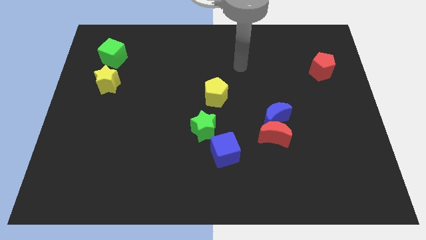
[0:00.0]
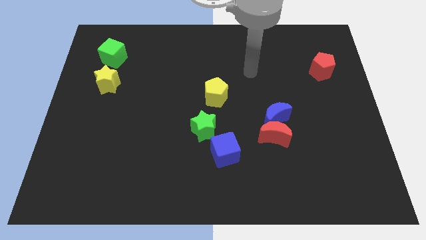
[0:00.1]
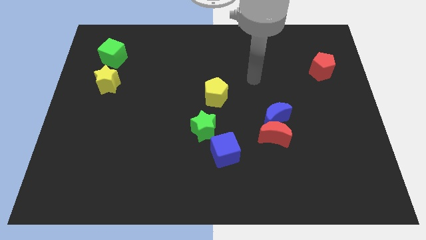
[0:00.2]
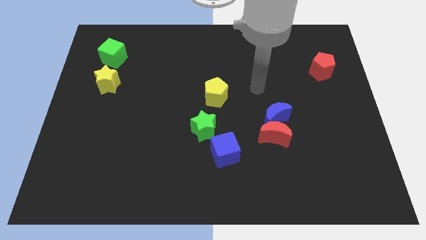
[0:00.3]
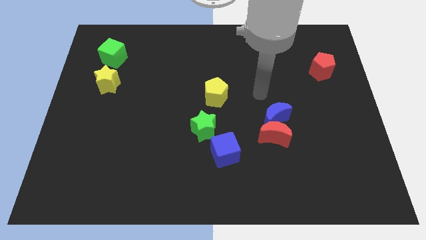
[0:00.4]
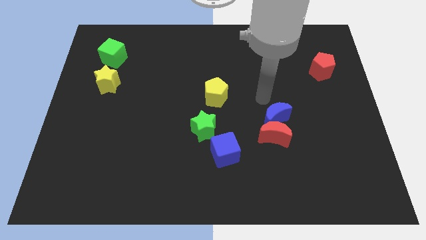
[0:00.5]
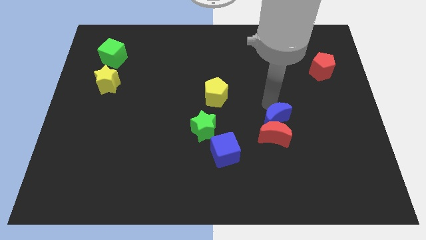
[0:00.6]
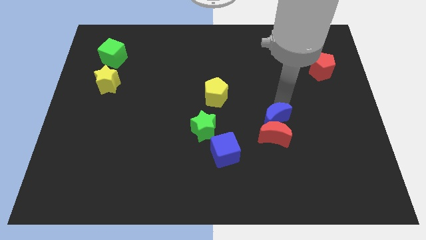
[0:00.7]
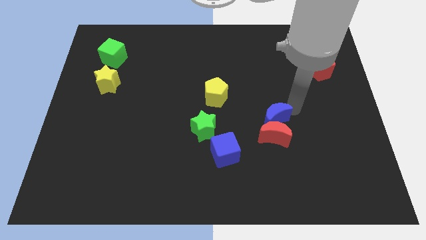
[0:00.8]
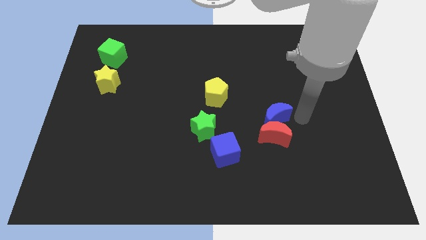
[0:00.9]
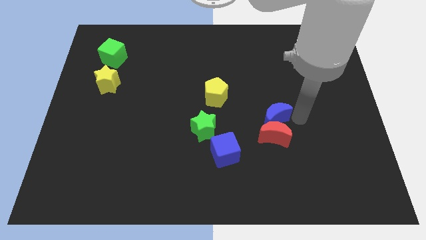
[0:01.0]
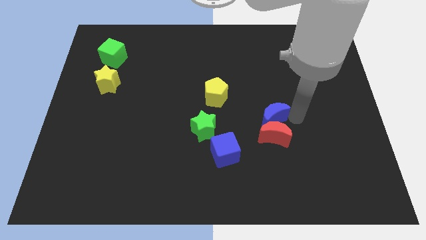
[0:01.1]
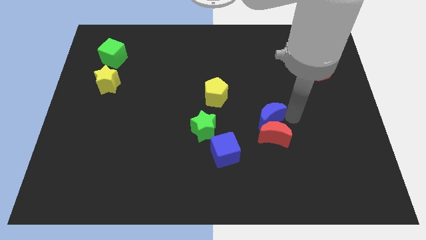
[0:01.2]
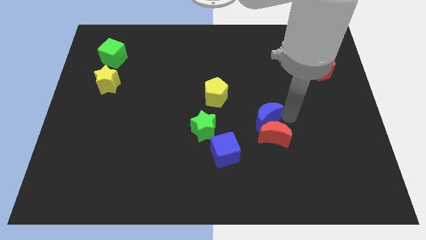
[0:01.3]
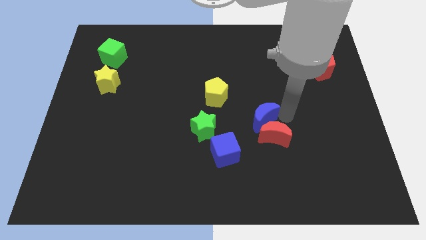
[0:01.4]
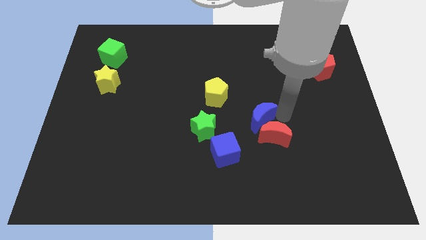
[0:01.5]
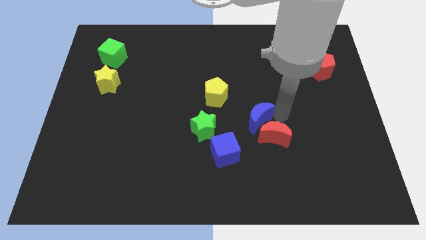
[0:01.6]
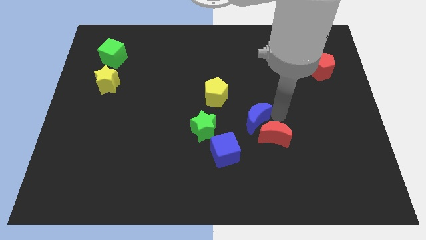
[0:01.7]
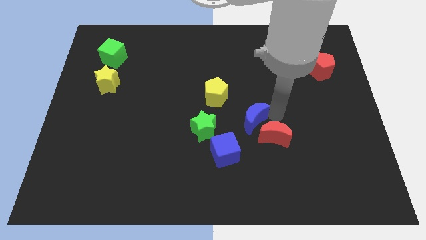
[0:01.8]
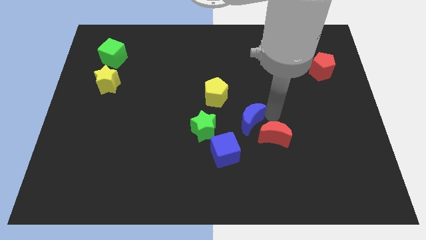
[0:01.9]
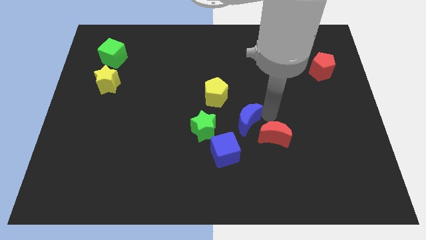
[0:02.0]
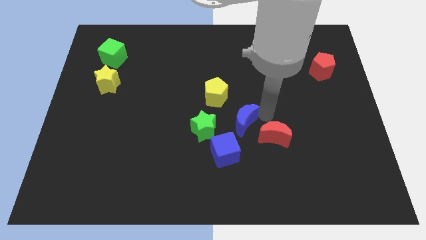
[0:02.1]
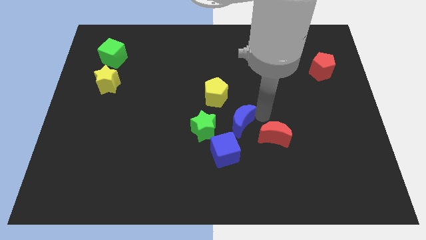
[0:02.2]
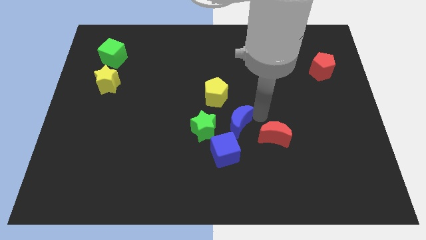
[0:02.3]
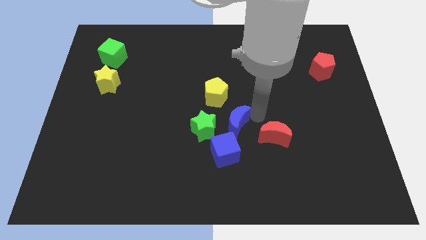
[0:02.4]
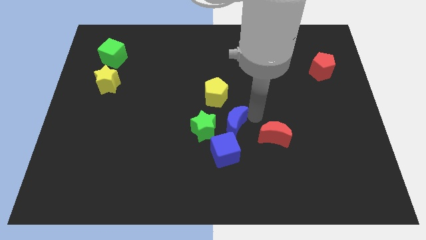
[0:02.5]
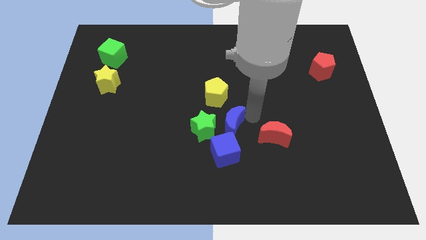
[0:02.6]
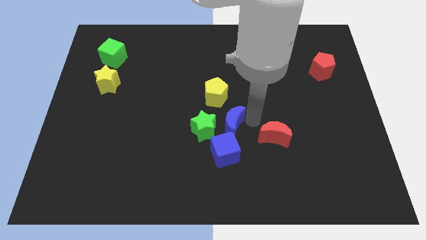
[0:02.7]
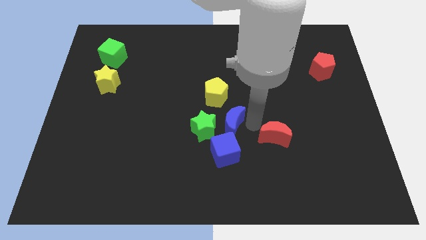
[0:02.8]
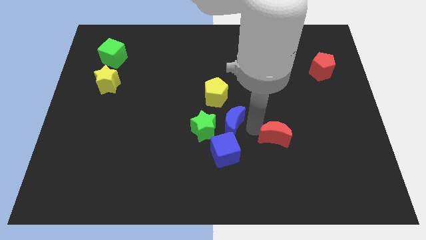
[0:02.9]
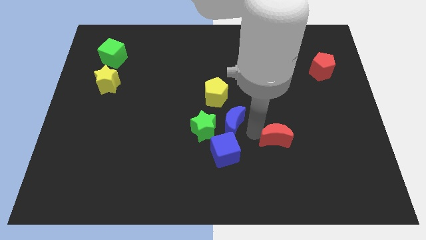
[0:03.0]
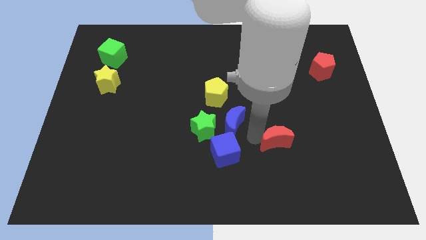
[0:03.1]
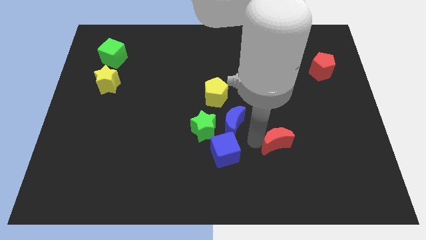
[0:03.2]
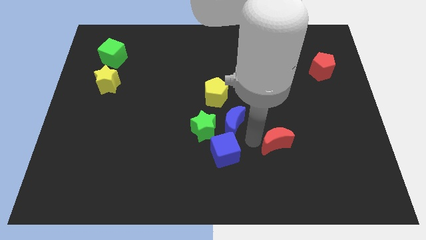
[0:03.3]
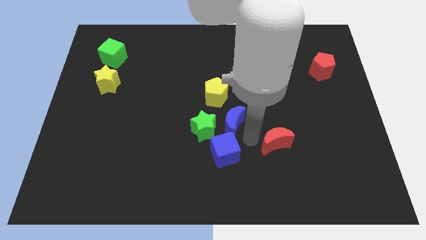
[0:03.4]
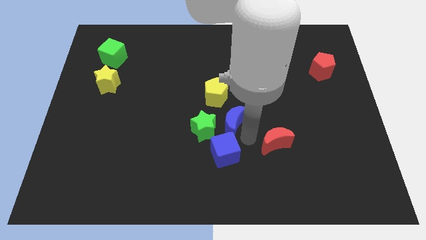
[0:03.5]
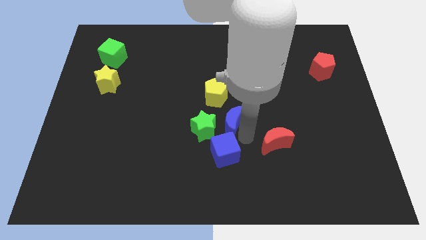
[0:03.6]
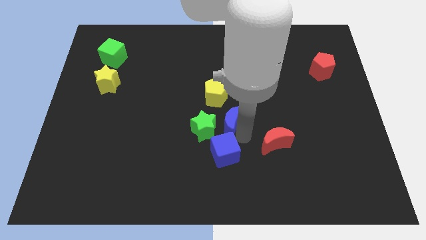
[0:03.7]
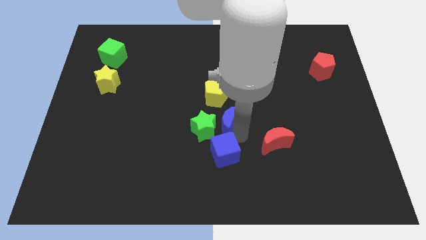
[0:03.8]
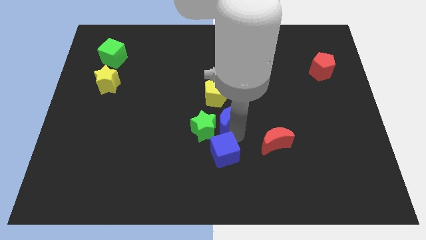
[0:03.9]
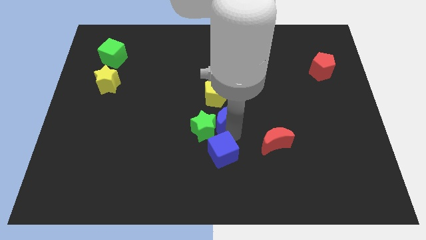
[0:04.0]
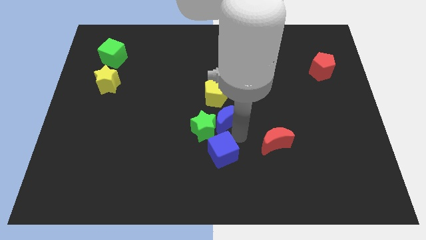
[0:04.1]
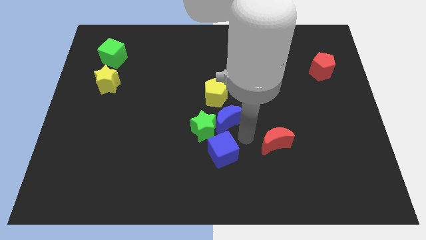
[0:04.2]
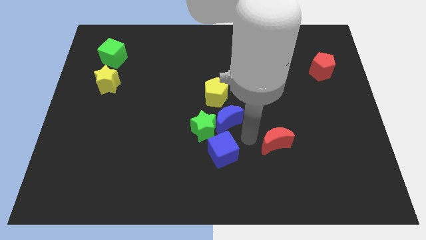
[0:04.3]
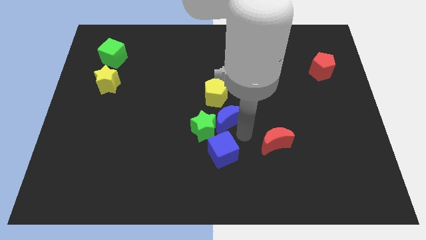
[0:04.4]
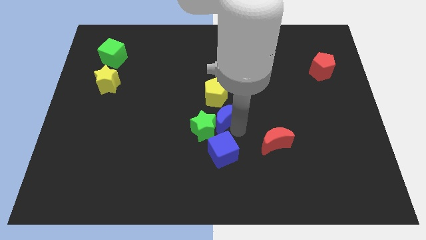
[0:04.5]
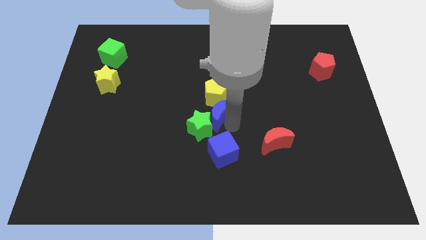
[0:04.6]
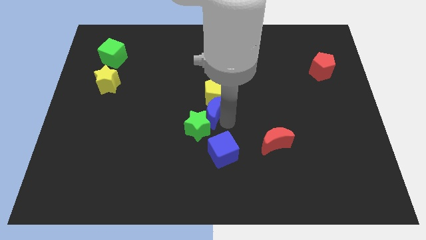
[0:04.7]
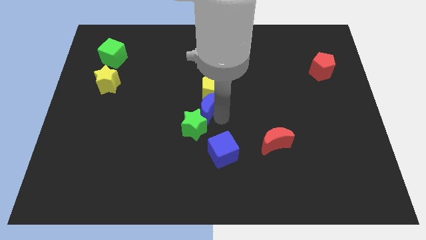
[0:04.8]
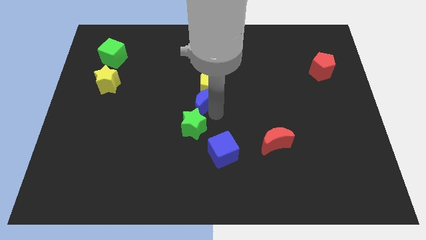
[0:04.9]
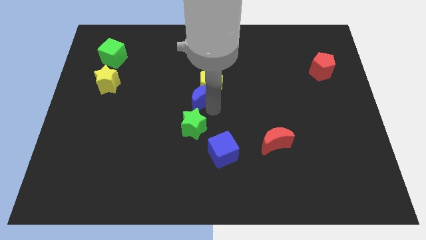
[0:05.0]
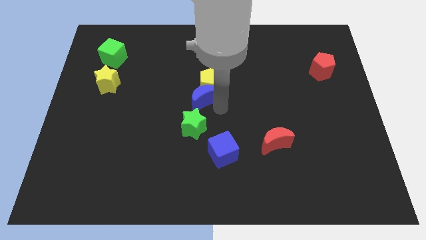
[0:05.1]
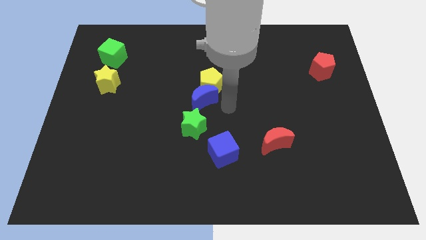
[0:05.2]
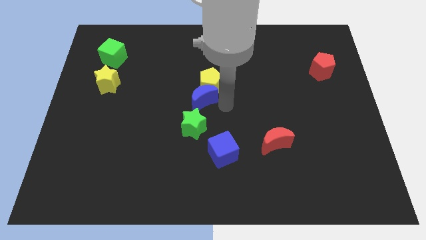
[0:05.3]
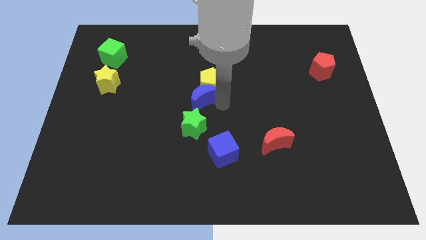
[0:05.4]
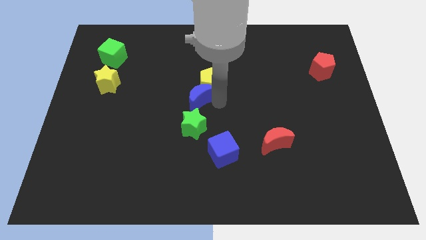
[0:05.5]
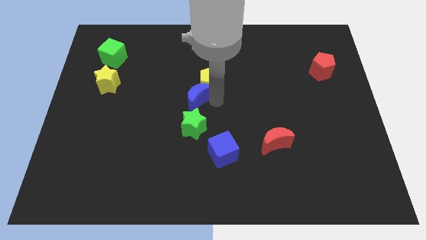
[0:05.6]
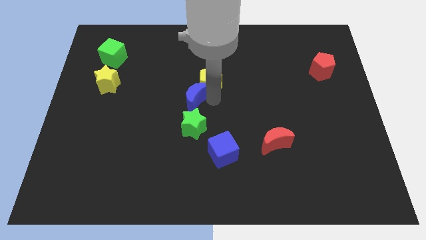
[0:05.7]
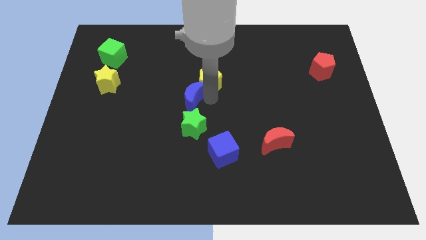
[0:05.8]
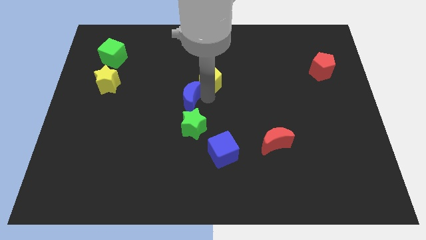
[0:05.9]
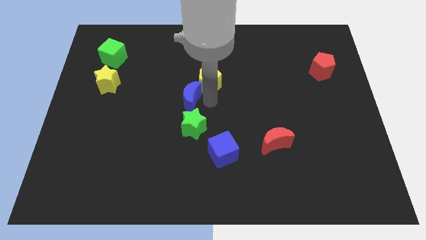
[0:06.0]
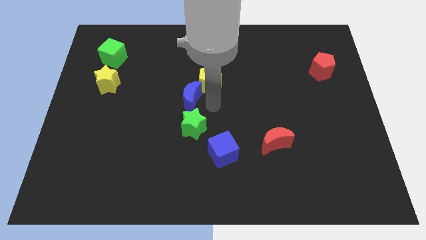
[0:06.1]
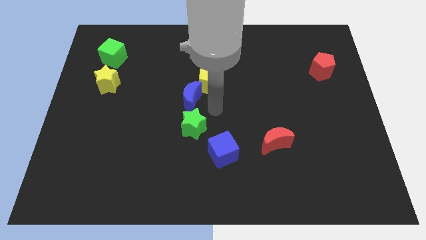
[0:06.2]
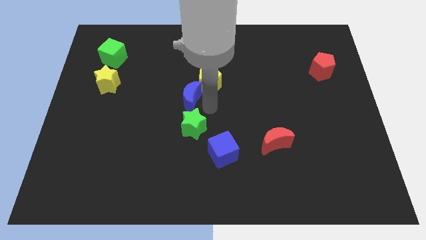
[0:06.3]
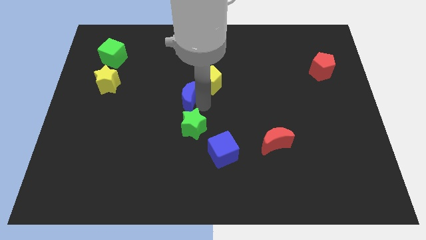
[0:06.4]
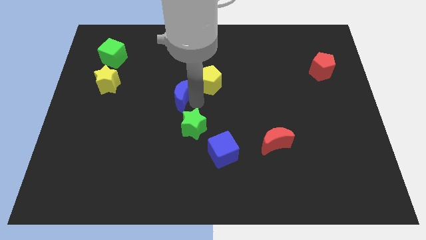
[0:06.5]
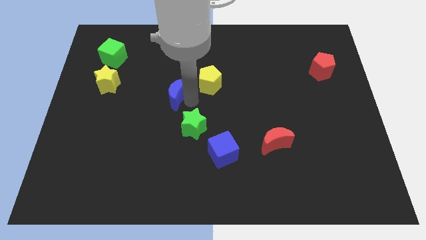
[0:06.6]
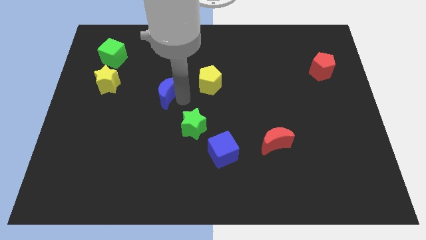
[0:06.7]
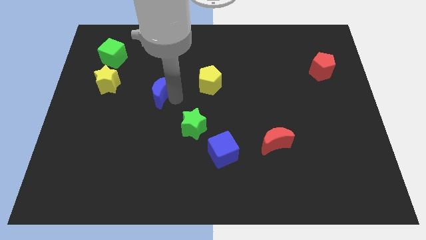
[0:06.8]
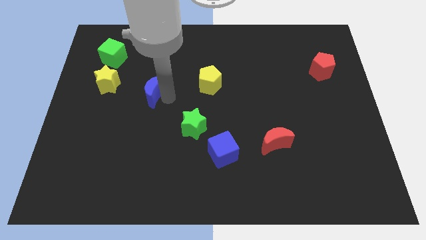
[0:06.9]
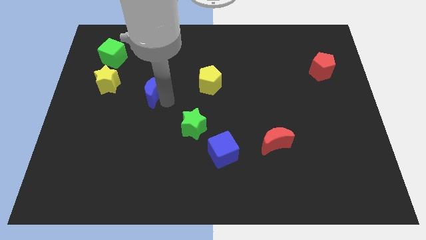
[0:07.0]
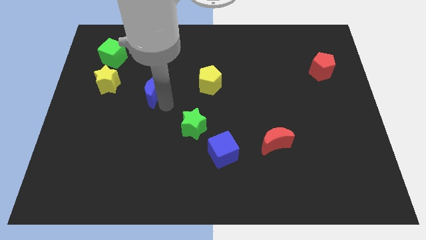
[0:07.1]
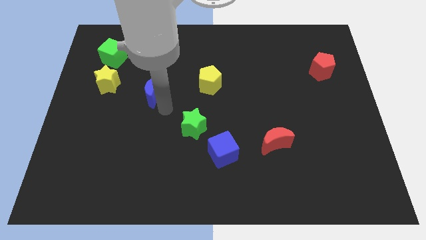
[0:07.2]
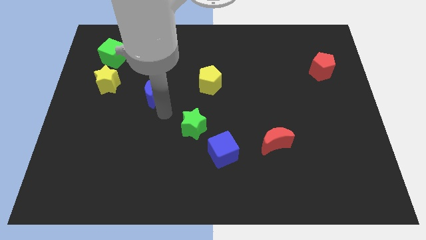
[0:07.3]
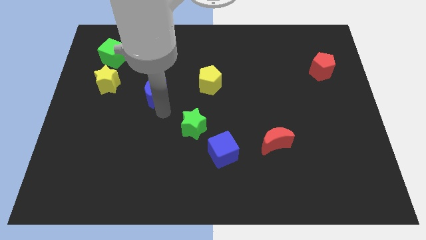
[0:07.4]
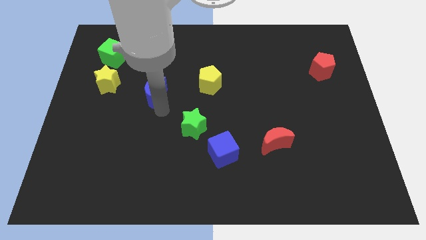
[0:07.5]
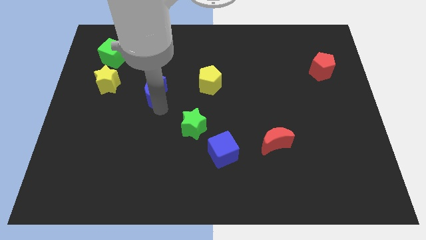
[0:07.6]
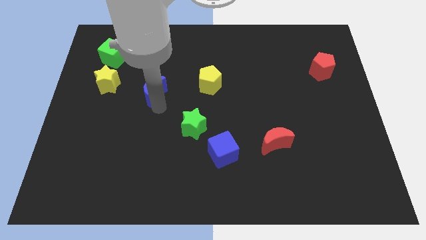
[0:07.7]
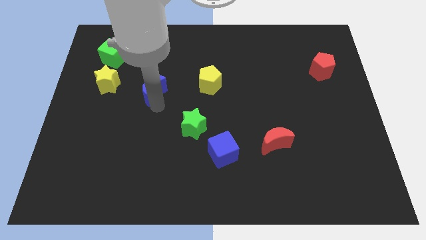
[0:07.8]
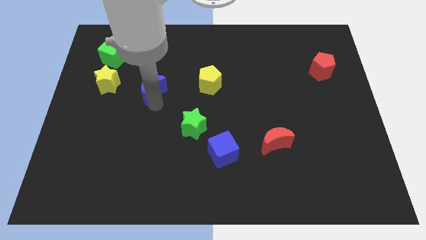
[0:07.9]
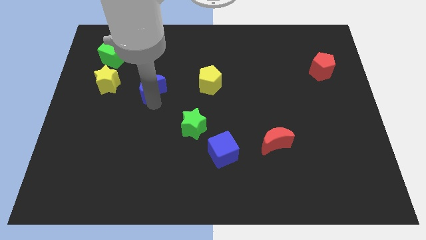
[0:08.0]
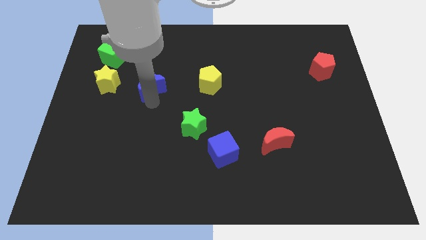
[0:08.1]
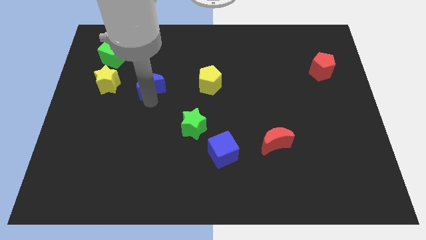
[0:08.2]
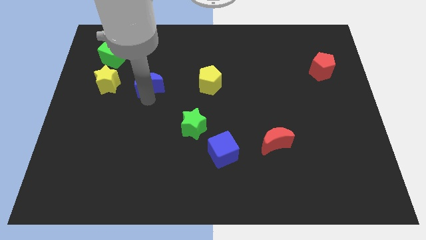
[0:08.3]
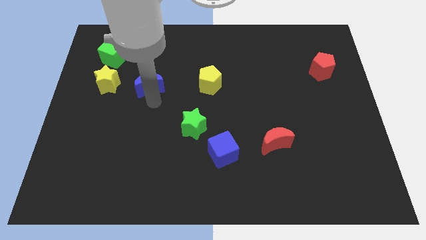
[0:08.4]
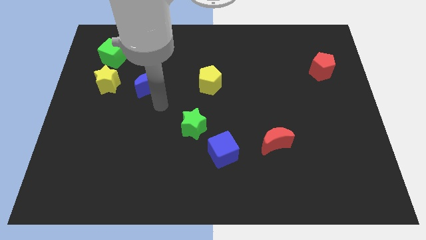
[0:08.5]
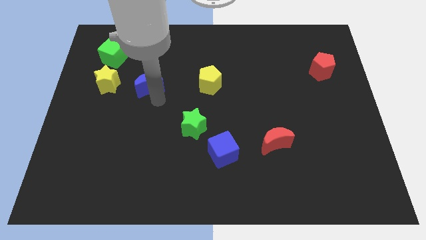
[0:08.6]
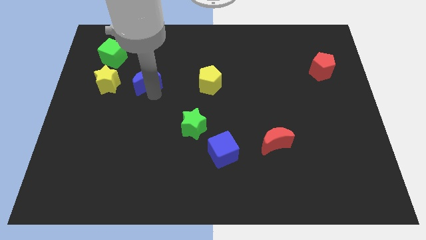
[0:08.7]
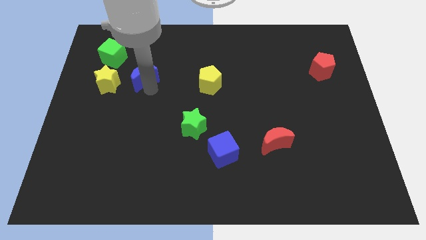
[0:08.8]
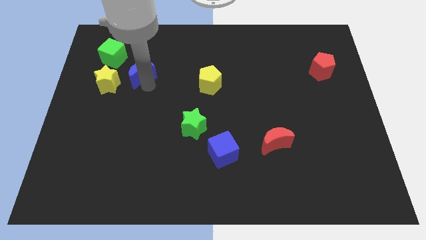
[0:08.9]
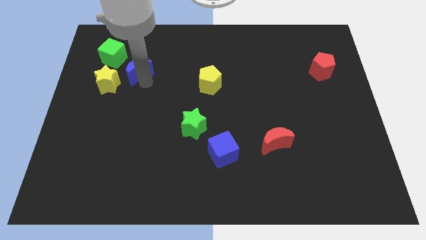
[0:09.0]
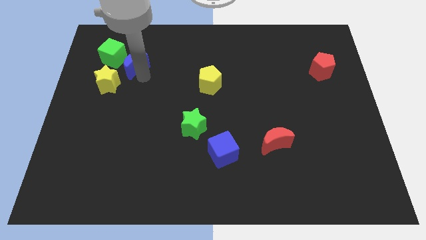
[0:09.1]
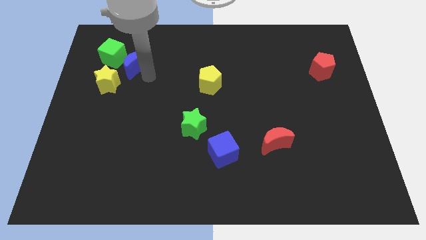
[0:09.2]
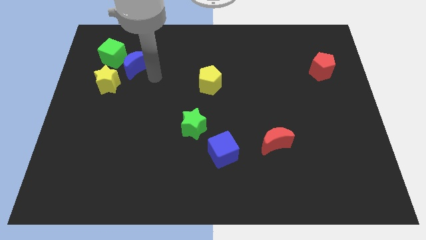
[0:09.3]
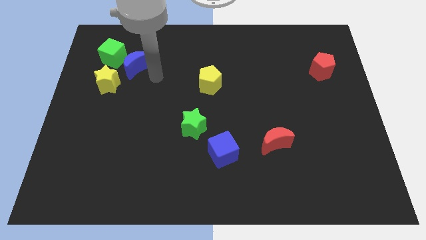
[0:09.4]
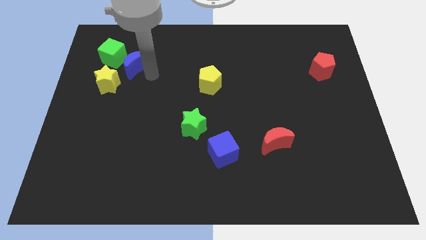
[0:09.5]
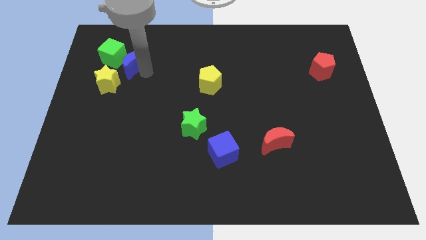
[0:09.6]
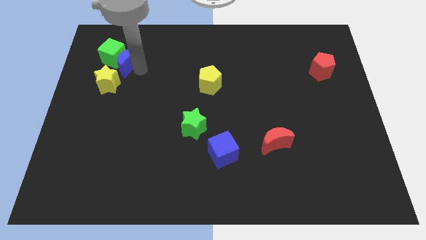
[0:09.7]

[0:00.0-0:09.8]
push the blue moon close to the green cube
